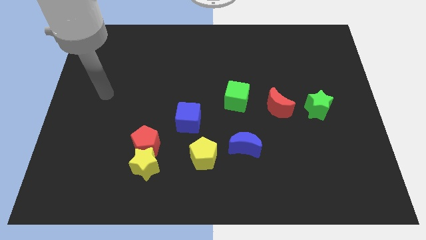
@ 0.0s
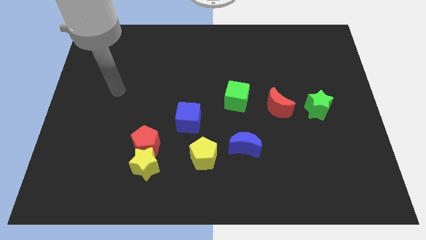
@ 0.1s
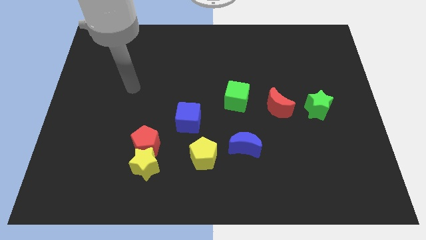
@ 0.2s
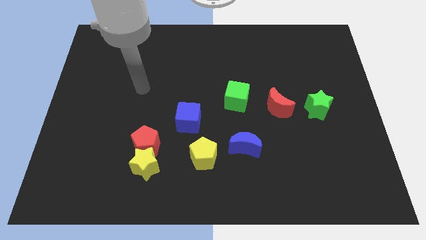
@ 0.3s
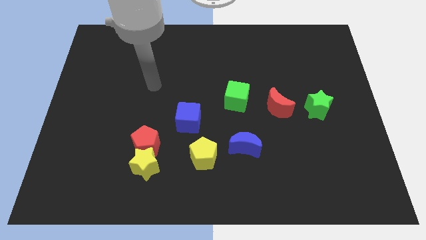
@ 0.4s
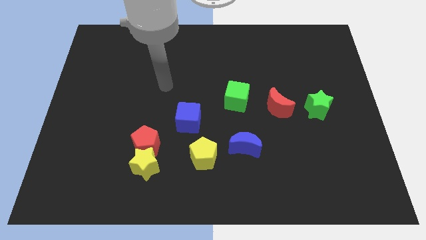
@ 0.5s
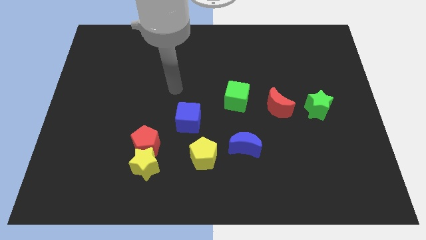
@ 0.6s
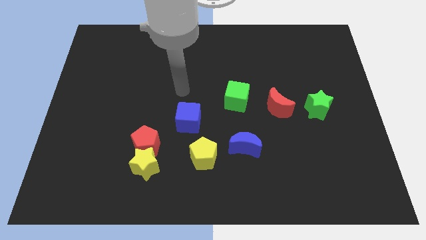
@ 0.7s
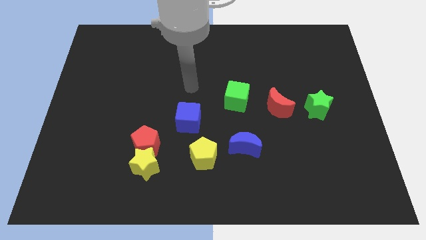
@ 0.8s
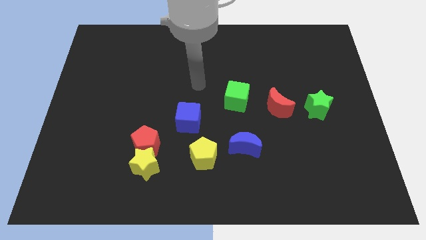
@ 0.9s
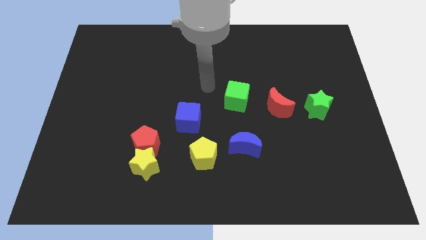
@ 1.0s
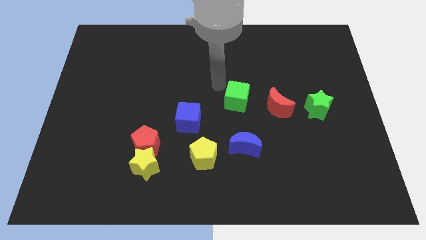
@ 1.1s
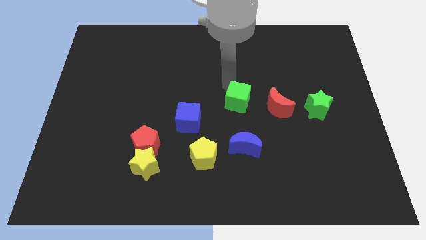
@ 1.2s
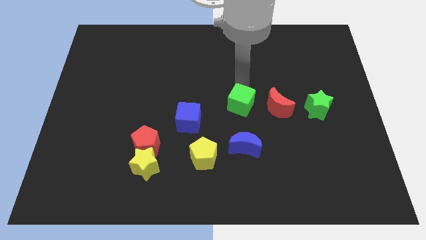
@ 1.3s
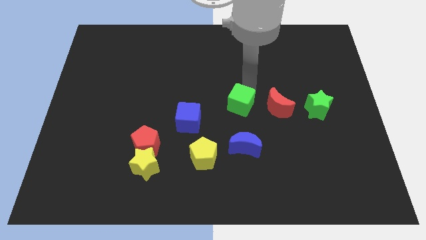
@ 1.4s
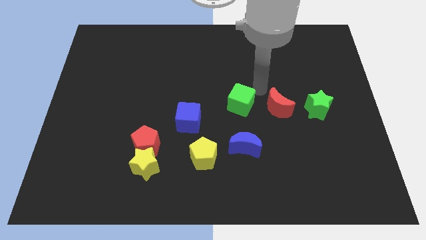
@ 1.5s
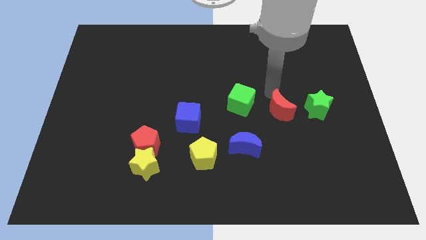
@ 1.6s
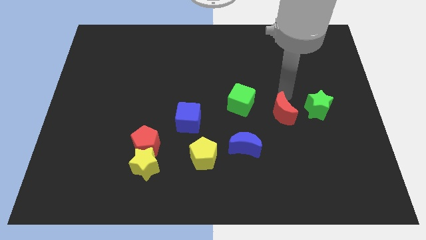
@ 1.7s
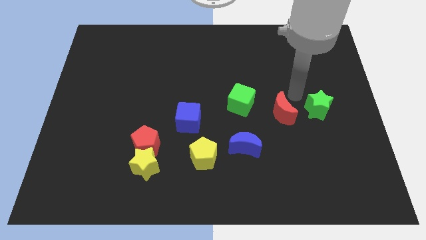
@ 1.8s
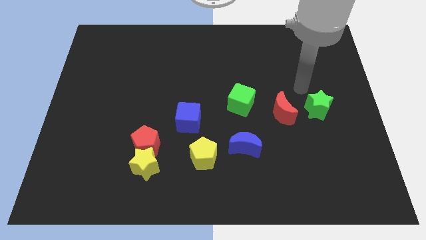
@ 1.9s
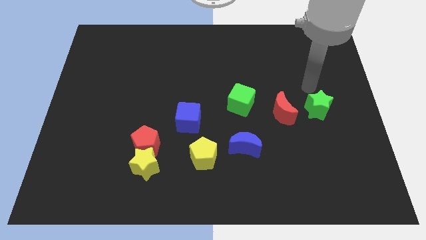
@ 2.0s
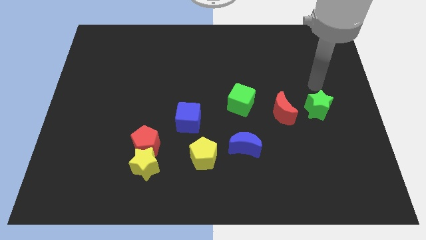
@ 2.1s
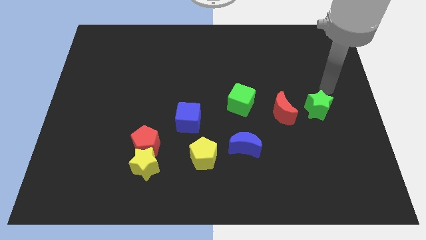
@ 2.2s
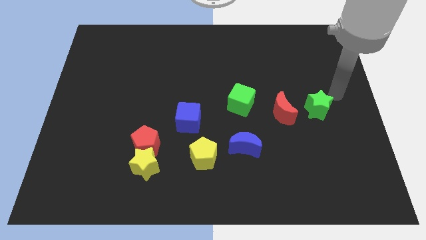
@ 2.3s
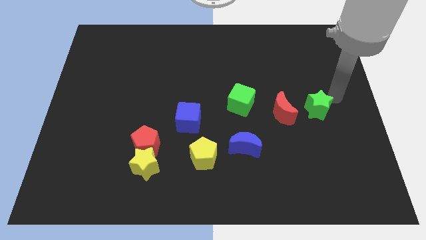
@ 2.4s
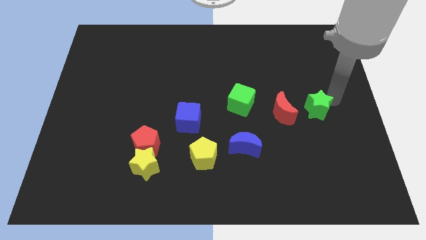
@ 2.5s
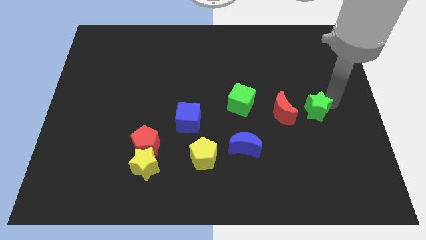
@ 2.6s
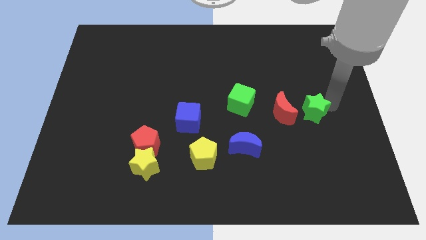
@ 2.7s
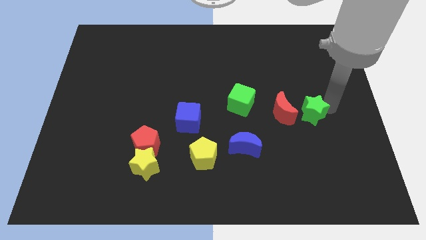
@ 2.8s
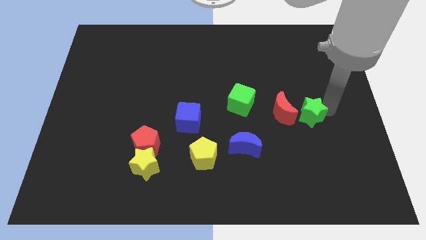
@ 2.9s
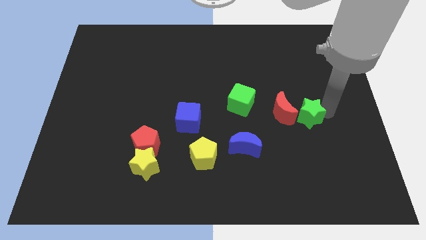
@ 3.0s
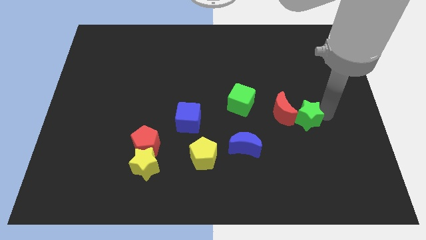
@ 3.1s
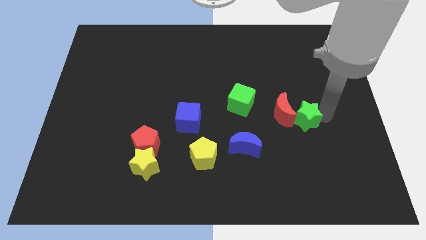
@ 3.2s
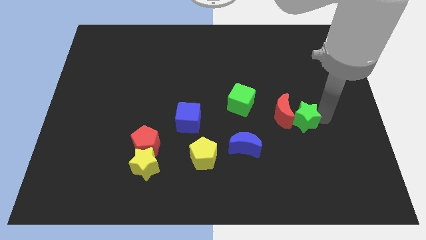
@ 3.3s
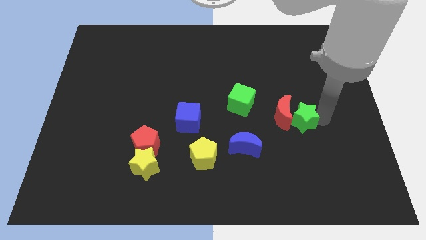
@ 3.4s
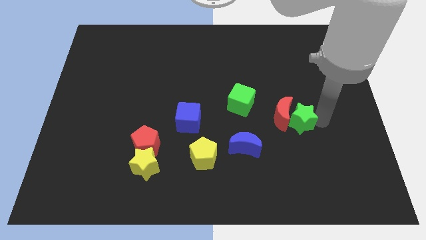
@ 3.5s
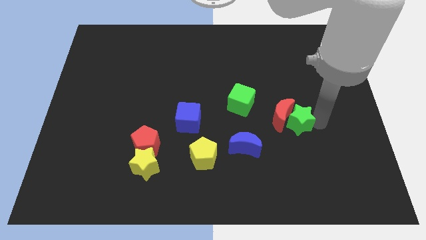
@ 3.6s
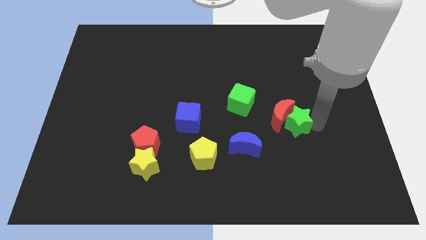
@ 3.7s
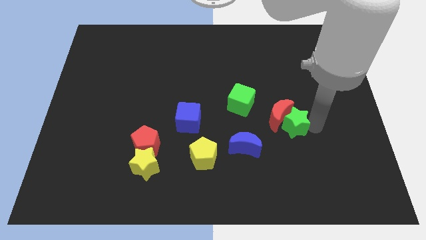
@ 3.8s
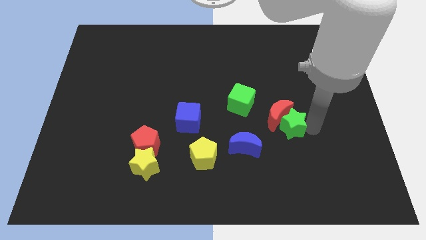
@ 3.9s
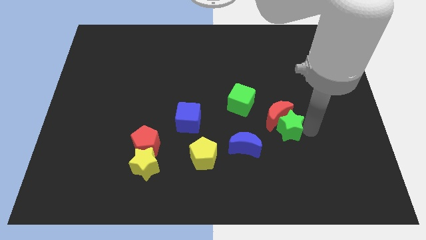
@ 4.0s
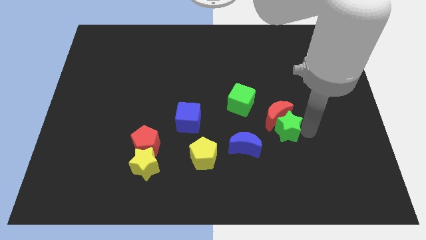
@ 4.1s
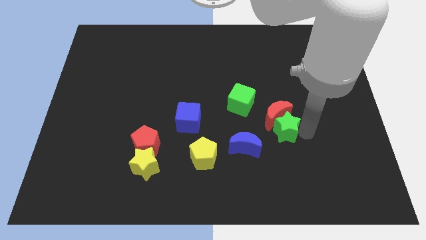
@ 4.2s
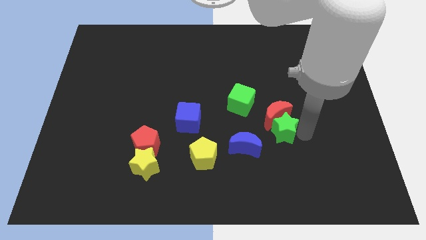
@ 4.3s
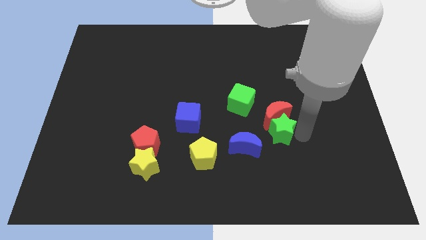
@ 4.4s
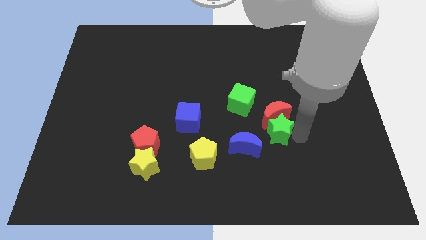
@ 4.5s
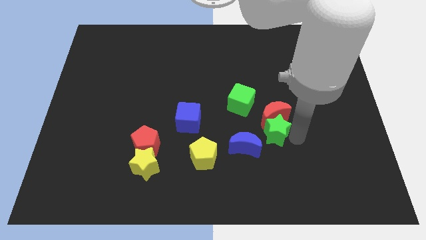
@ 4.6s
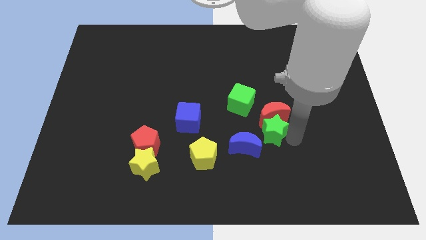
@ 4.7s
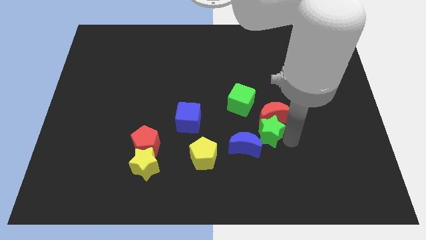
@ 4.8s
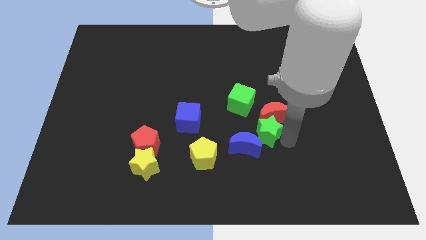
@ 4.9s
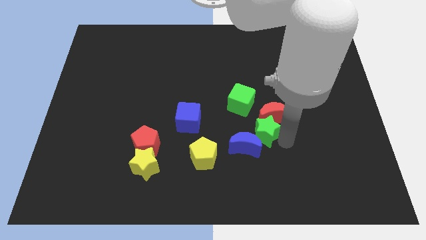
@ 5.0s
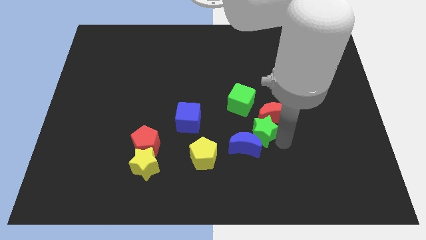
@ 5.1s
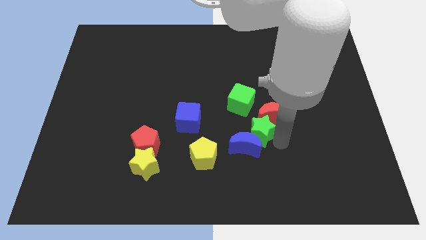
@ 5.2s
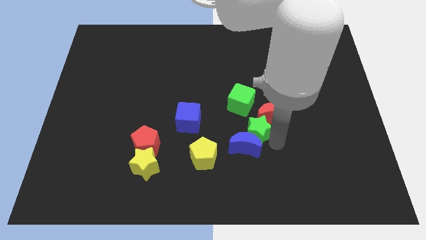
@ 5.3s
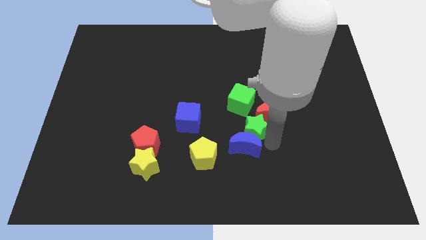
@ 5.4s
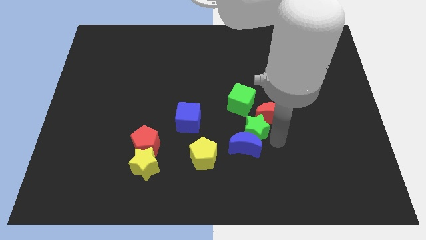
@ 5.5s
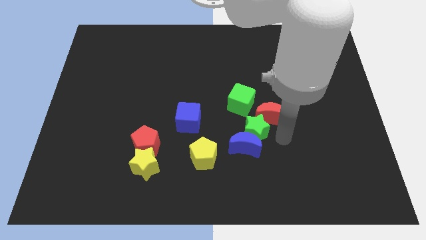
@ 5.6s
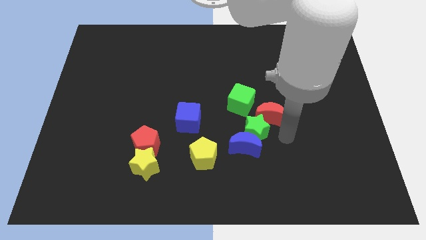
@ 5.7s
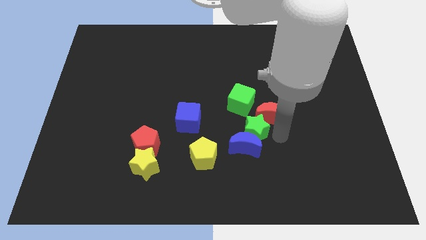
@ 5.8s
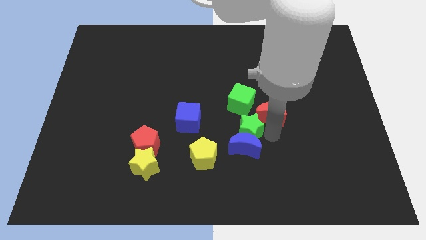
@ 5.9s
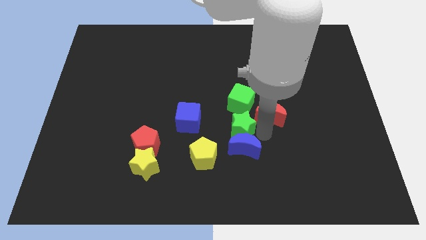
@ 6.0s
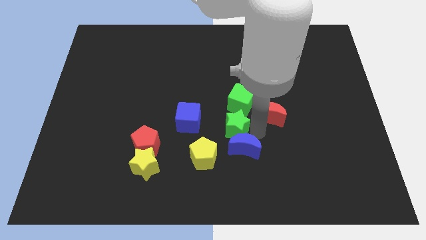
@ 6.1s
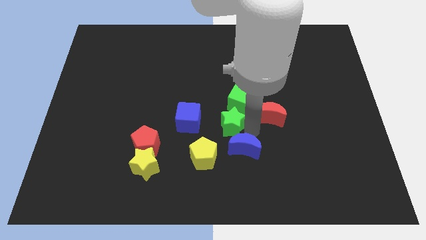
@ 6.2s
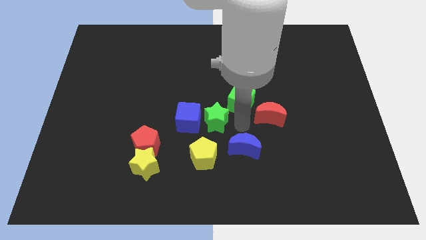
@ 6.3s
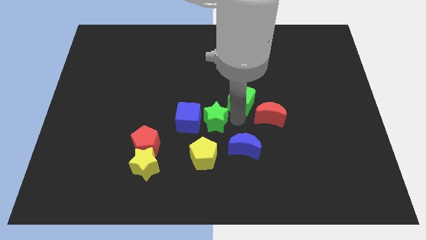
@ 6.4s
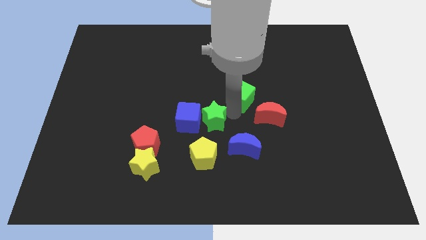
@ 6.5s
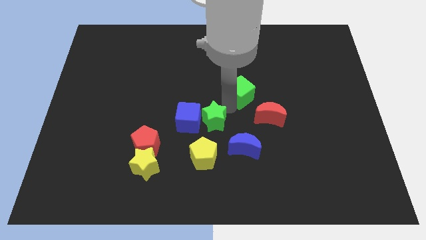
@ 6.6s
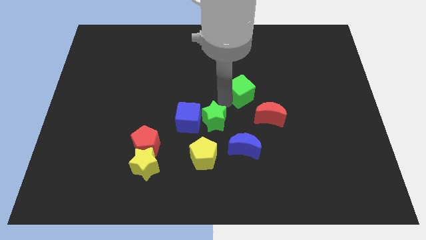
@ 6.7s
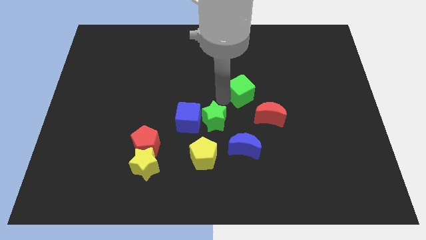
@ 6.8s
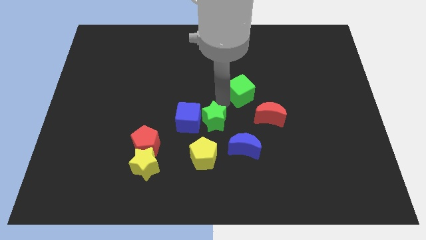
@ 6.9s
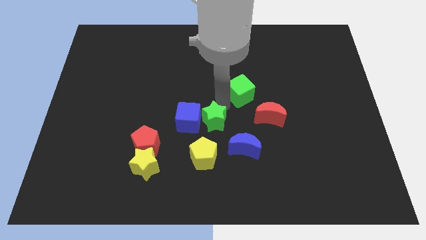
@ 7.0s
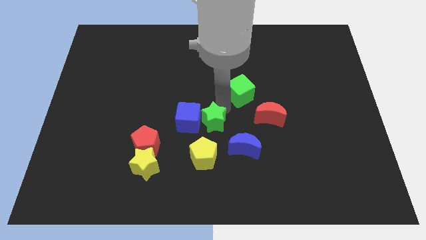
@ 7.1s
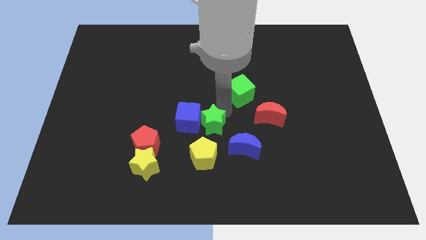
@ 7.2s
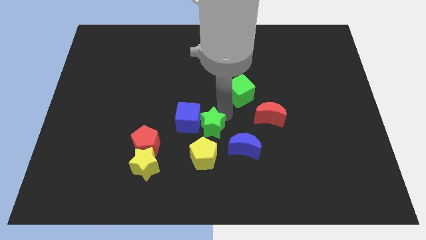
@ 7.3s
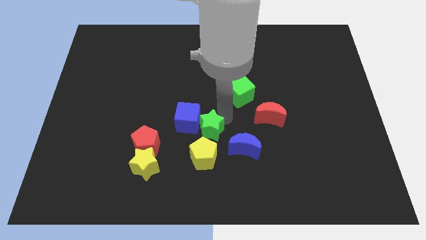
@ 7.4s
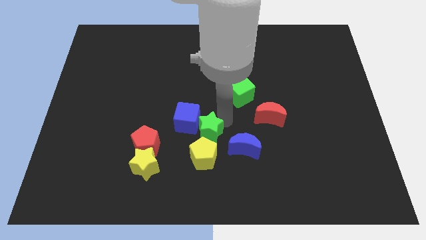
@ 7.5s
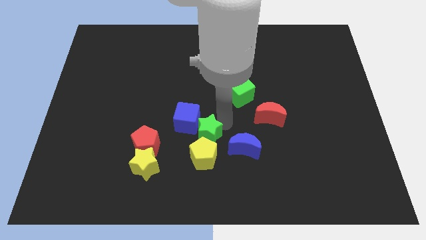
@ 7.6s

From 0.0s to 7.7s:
push the green star next to the yellow pentagon
